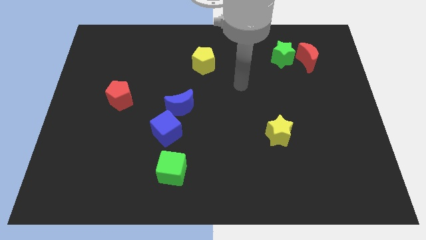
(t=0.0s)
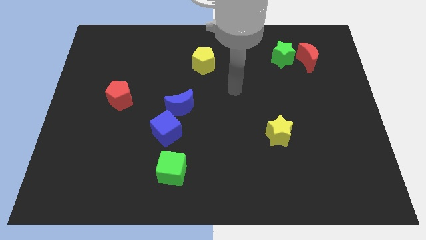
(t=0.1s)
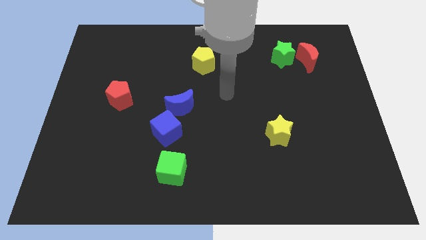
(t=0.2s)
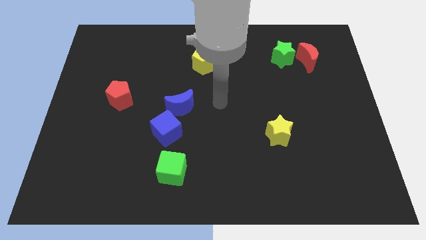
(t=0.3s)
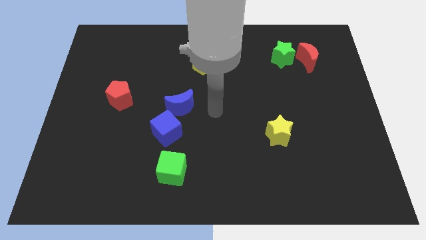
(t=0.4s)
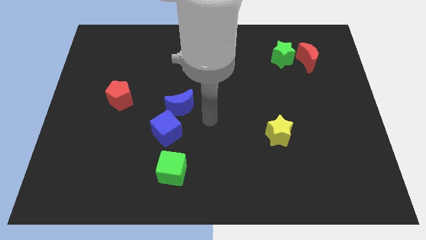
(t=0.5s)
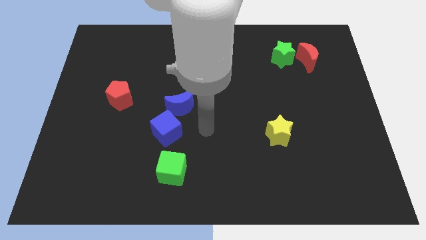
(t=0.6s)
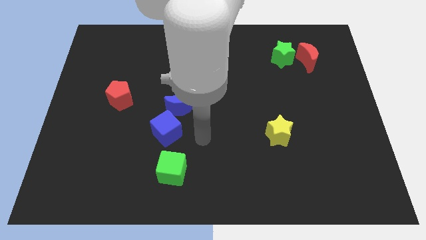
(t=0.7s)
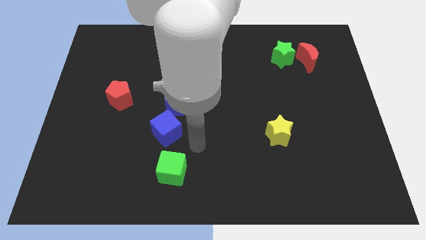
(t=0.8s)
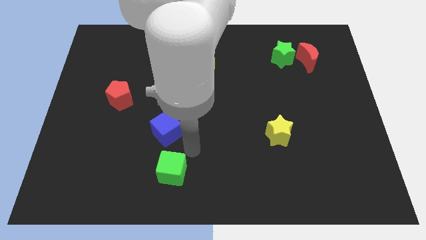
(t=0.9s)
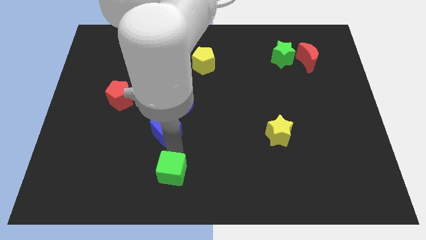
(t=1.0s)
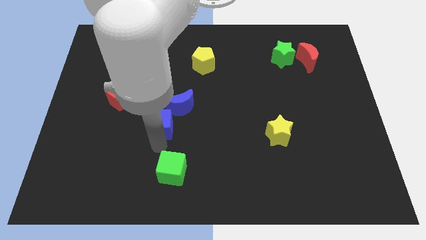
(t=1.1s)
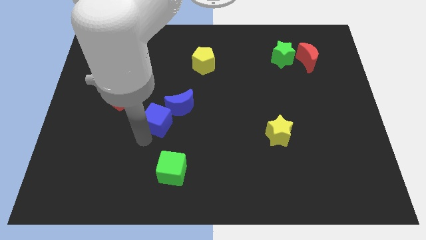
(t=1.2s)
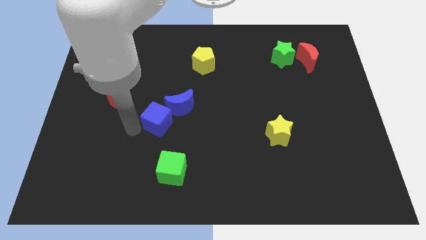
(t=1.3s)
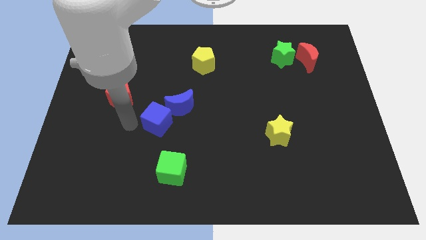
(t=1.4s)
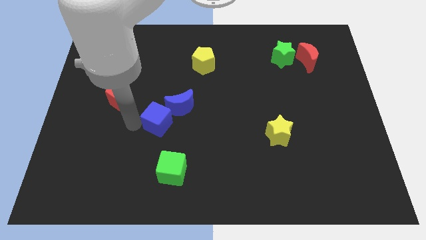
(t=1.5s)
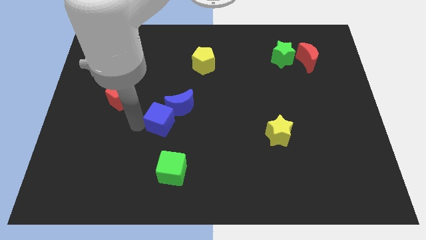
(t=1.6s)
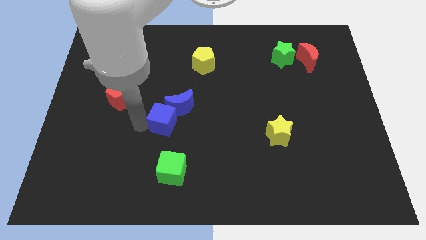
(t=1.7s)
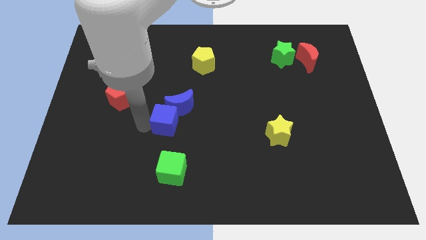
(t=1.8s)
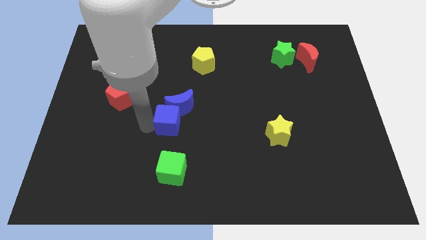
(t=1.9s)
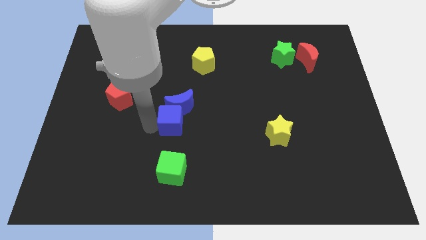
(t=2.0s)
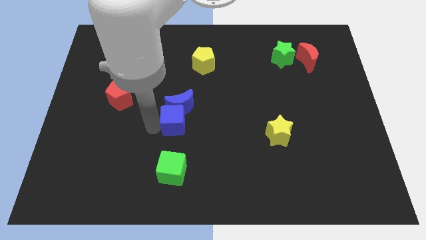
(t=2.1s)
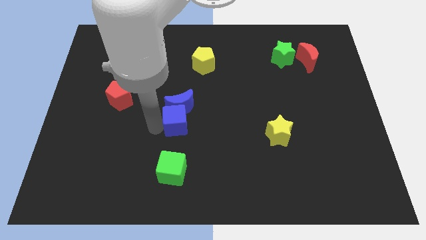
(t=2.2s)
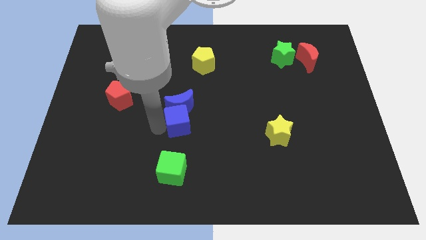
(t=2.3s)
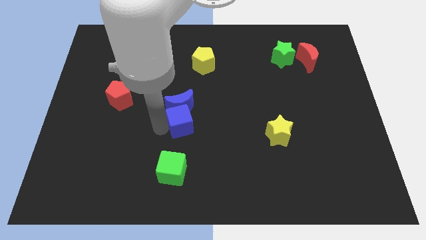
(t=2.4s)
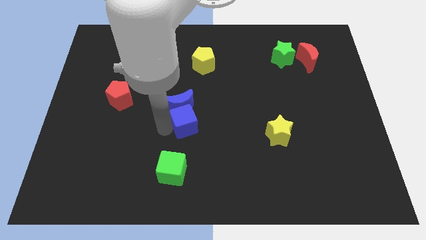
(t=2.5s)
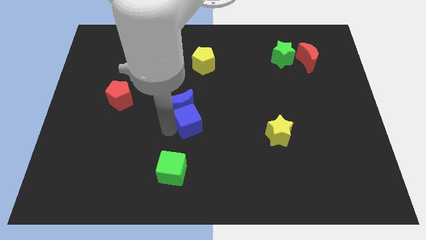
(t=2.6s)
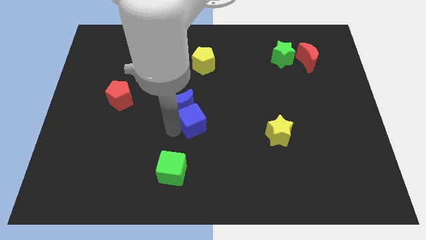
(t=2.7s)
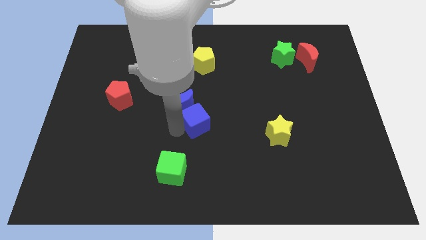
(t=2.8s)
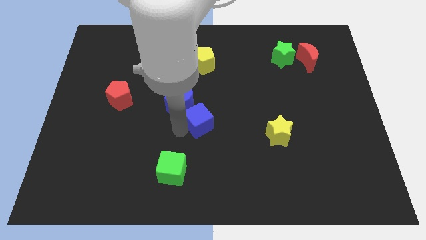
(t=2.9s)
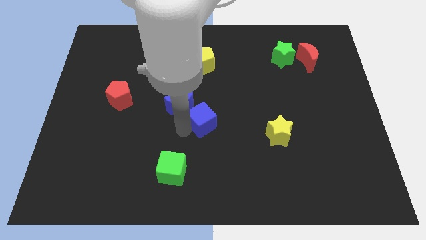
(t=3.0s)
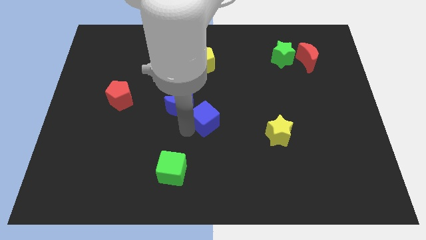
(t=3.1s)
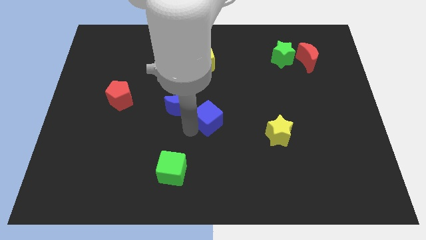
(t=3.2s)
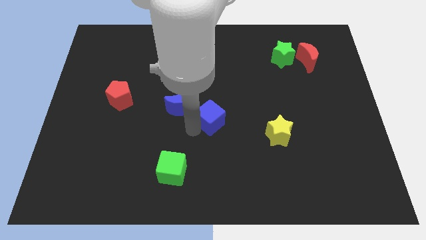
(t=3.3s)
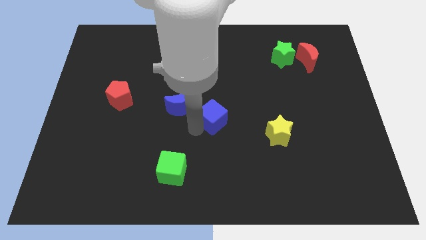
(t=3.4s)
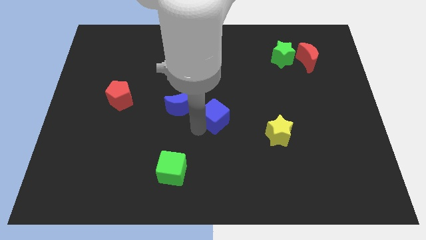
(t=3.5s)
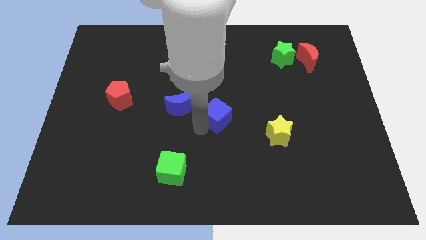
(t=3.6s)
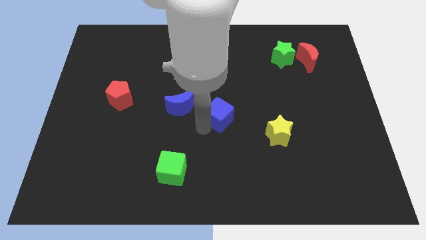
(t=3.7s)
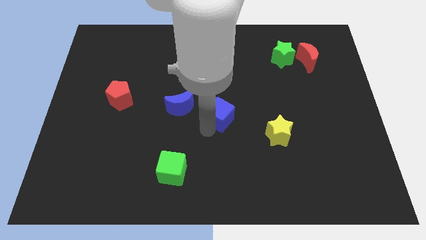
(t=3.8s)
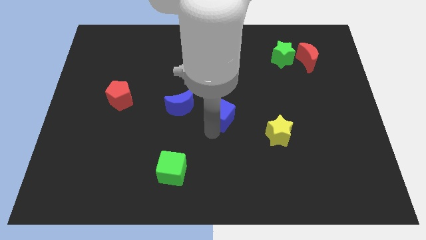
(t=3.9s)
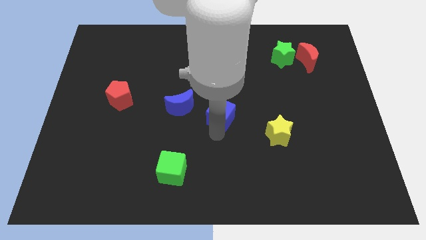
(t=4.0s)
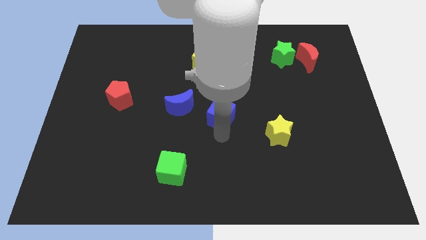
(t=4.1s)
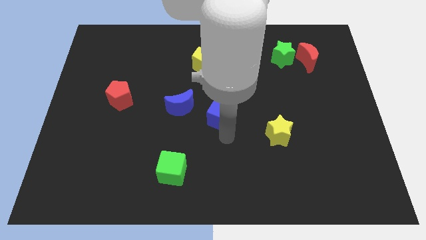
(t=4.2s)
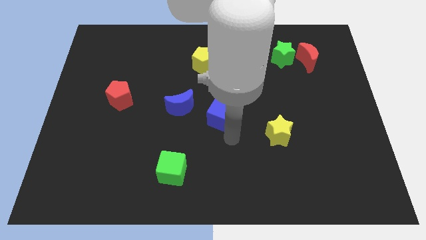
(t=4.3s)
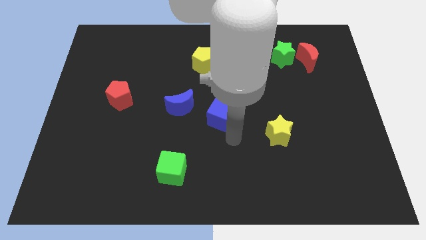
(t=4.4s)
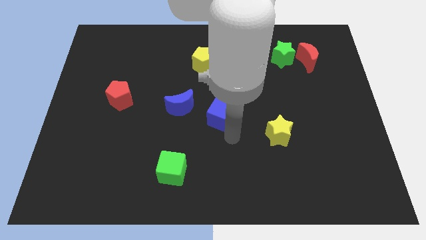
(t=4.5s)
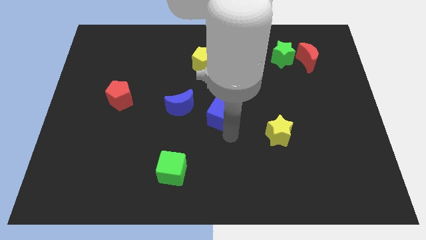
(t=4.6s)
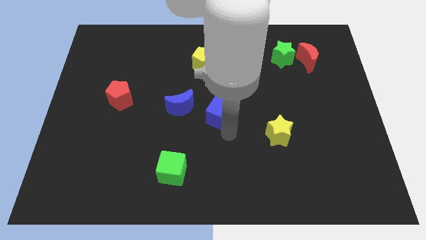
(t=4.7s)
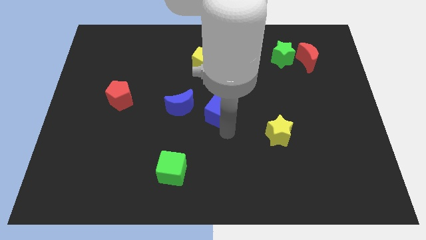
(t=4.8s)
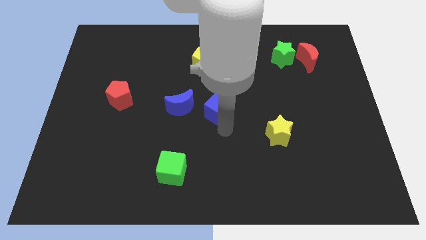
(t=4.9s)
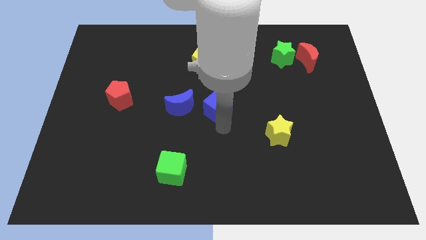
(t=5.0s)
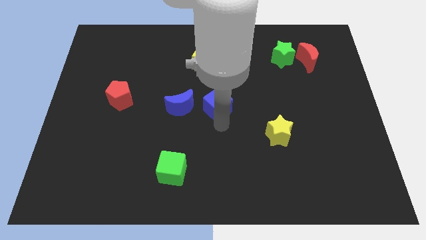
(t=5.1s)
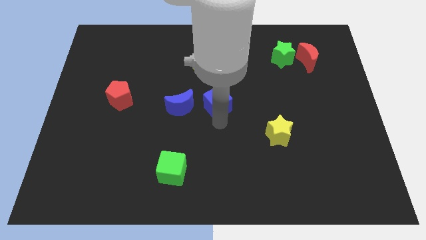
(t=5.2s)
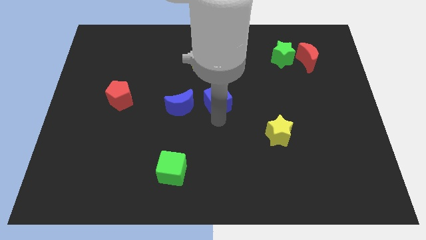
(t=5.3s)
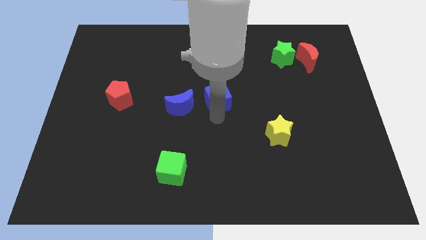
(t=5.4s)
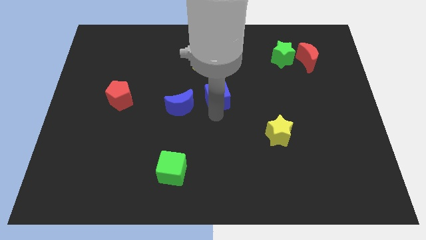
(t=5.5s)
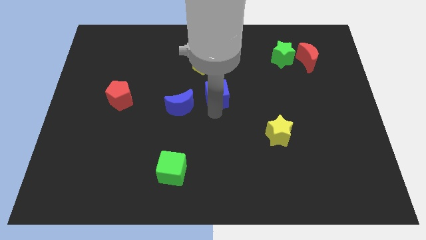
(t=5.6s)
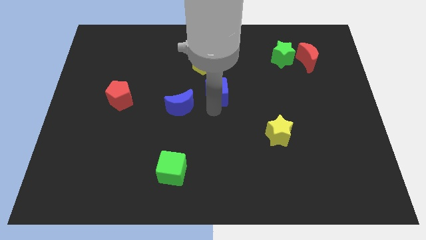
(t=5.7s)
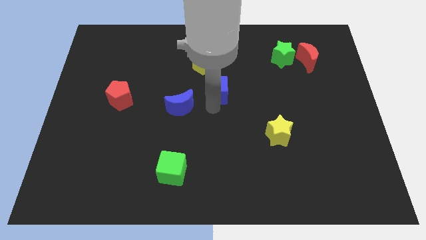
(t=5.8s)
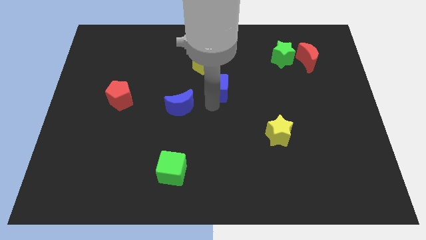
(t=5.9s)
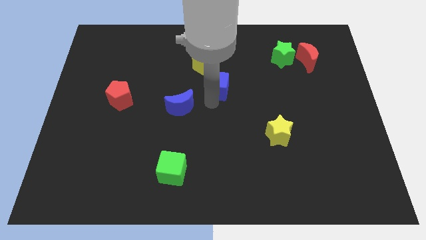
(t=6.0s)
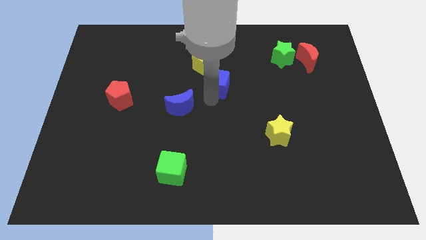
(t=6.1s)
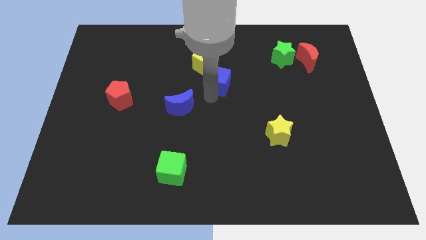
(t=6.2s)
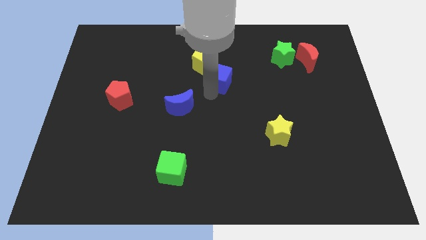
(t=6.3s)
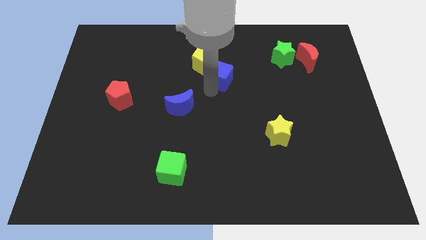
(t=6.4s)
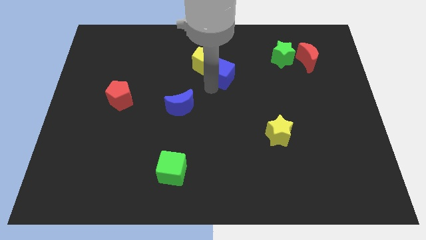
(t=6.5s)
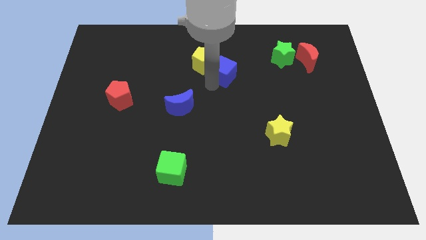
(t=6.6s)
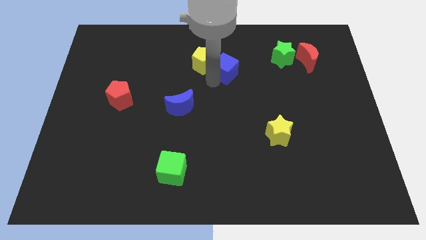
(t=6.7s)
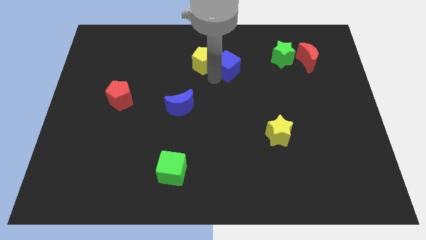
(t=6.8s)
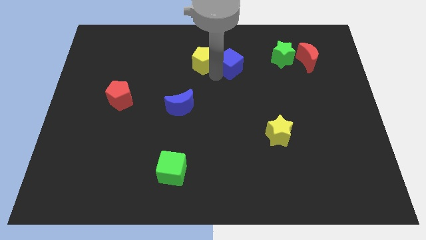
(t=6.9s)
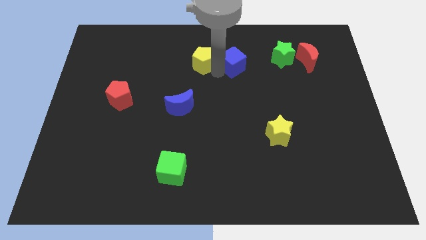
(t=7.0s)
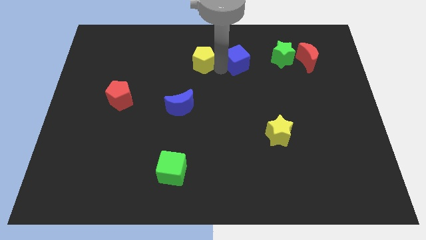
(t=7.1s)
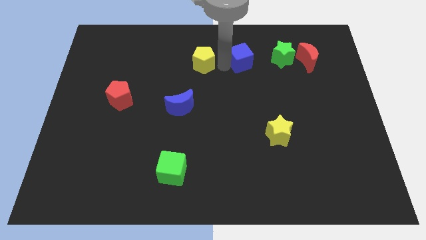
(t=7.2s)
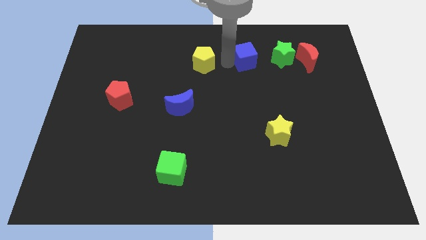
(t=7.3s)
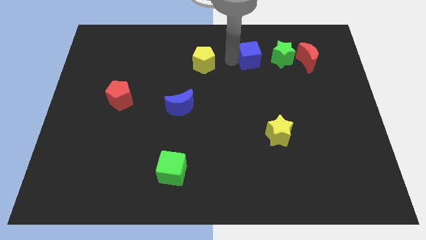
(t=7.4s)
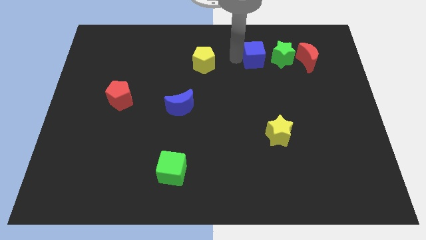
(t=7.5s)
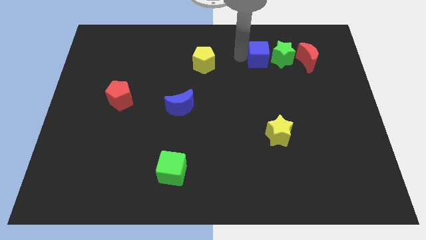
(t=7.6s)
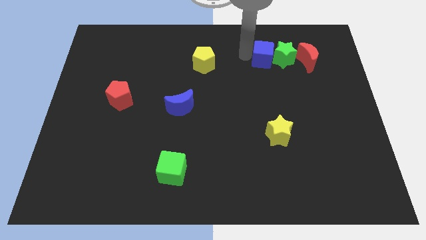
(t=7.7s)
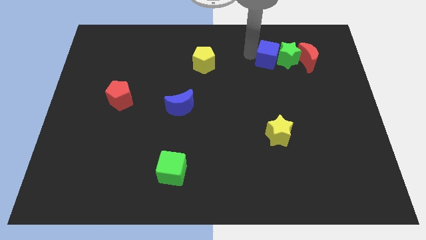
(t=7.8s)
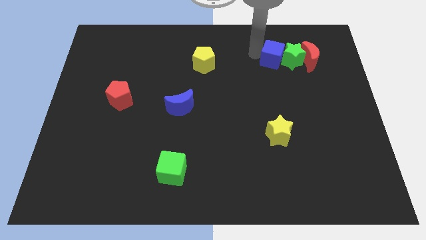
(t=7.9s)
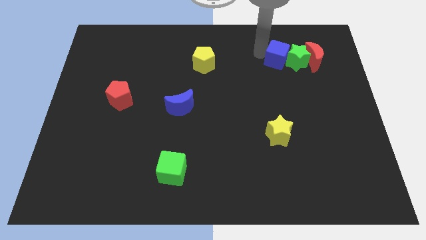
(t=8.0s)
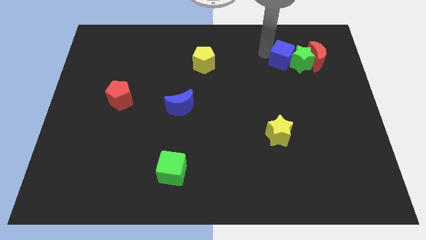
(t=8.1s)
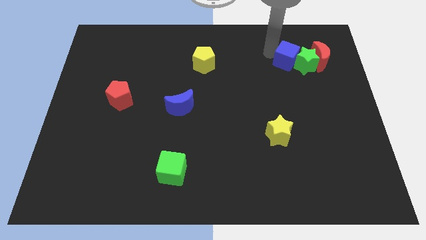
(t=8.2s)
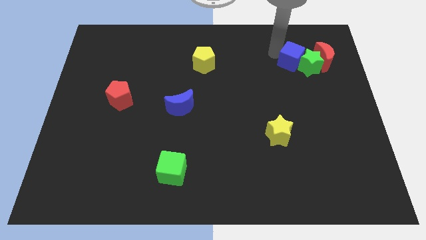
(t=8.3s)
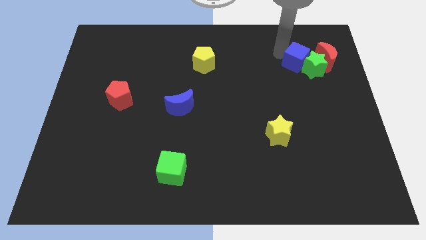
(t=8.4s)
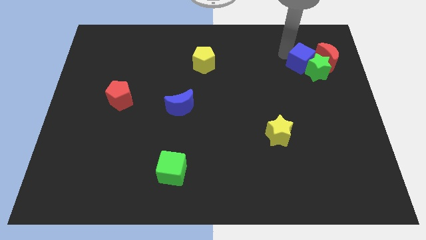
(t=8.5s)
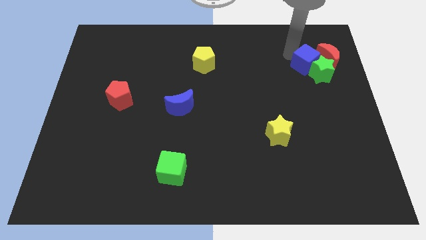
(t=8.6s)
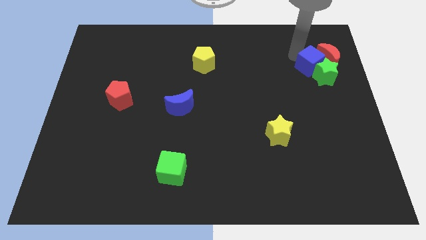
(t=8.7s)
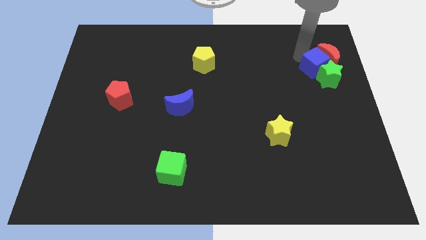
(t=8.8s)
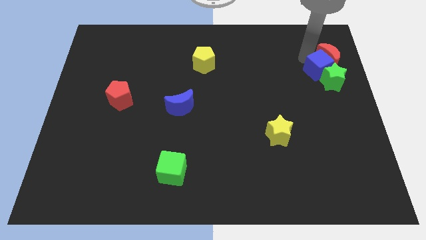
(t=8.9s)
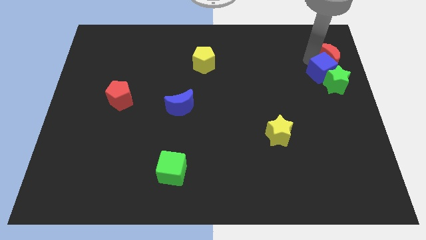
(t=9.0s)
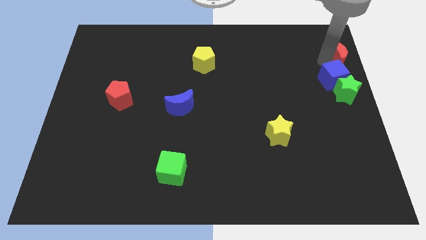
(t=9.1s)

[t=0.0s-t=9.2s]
slide the blue cube to the right side of the board
